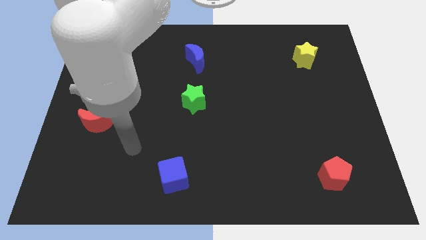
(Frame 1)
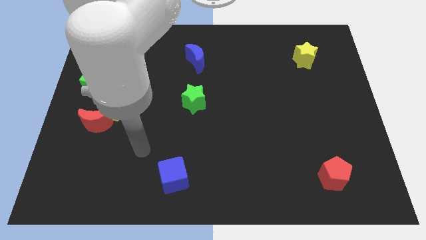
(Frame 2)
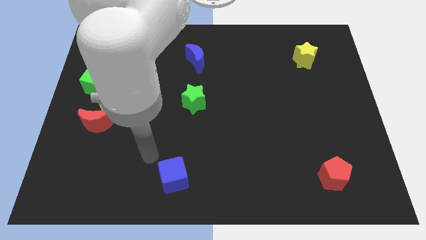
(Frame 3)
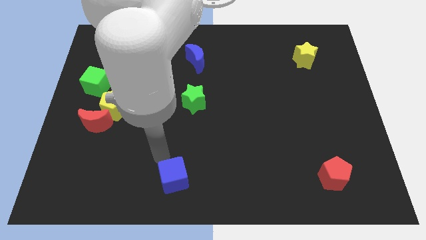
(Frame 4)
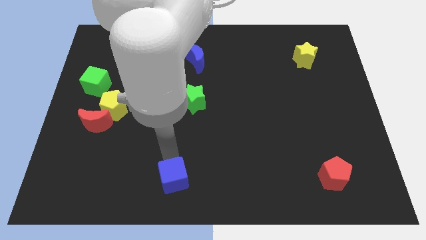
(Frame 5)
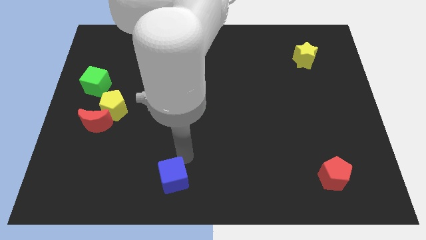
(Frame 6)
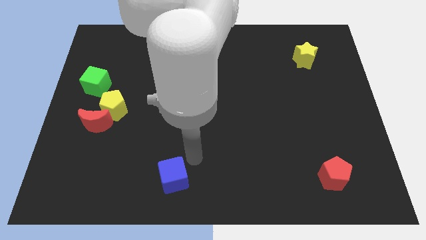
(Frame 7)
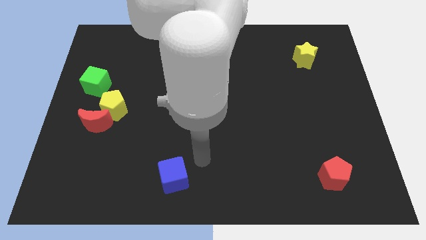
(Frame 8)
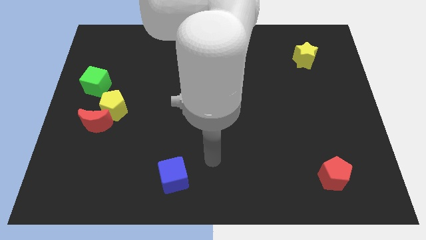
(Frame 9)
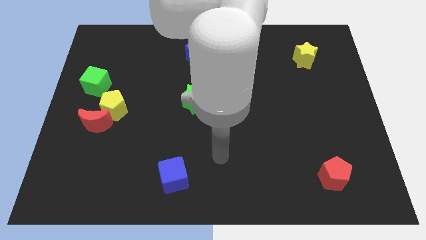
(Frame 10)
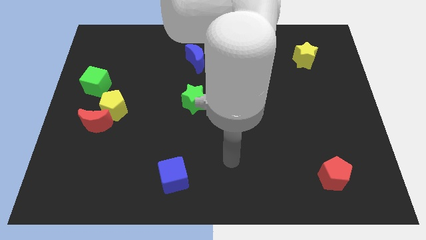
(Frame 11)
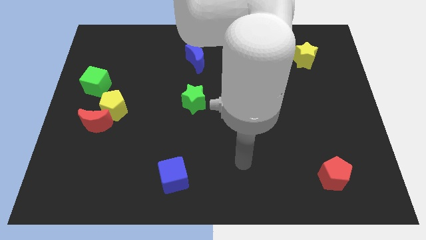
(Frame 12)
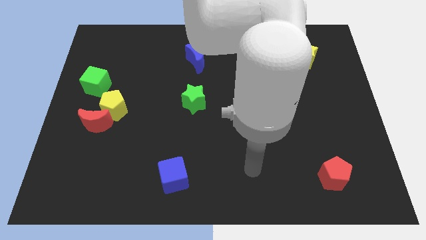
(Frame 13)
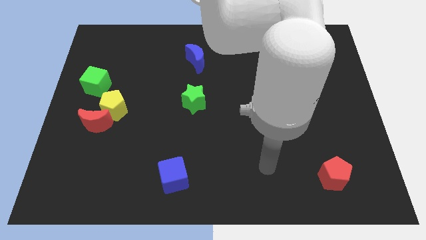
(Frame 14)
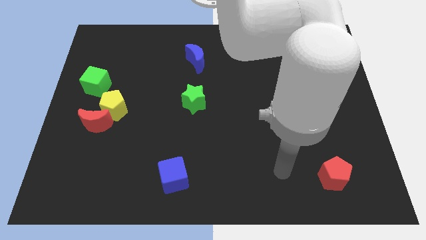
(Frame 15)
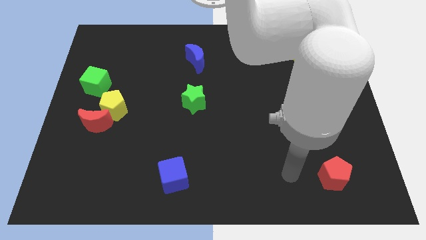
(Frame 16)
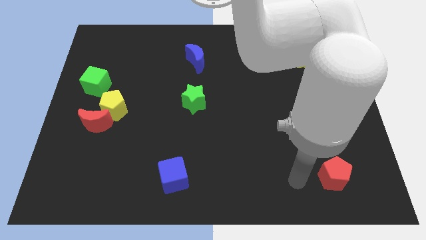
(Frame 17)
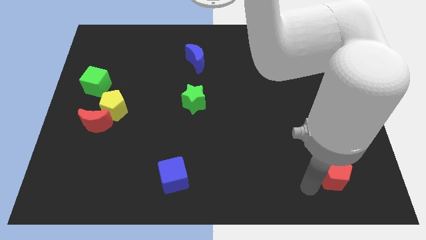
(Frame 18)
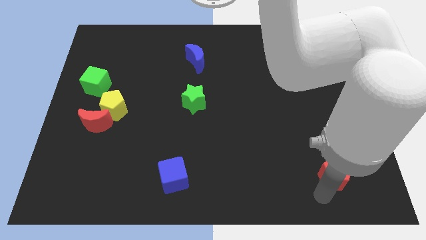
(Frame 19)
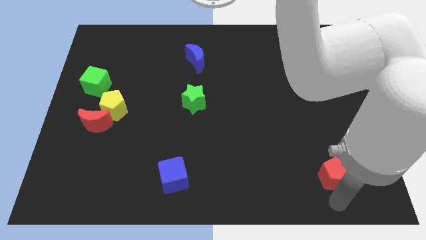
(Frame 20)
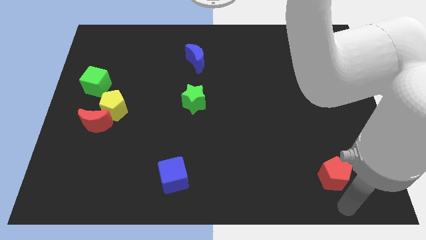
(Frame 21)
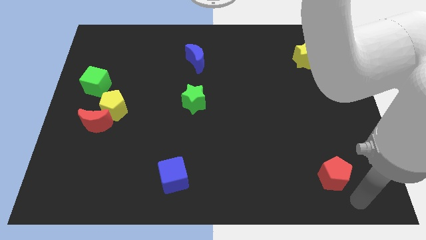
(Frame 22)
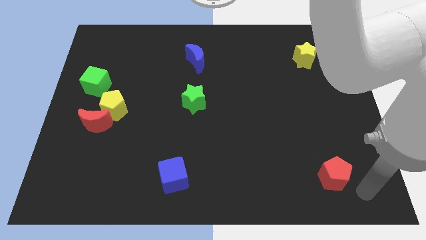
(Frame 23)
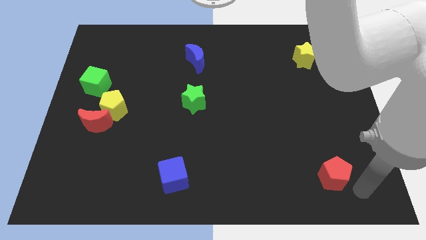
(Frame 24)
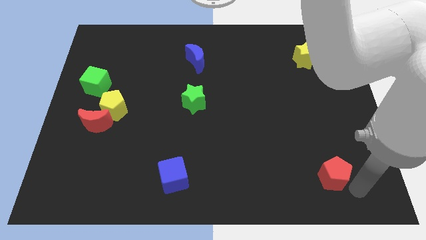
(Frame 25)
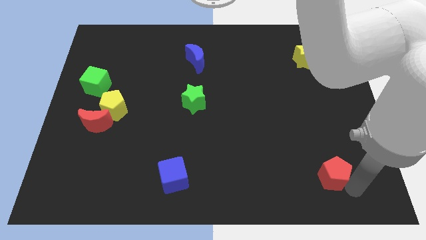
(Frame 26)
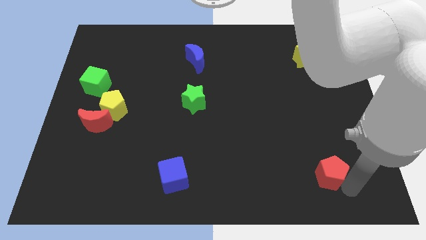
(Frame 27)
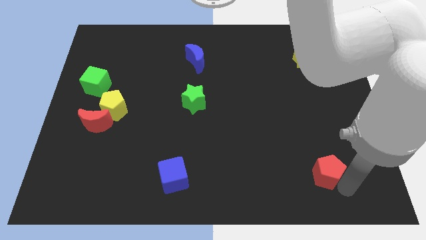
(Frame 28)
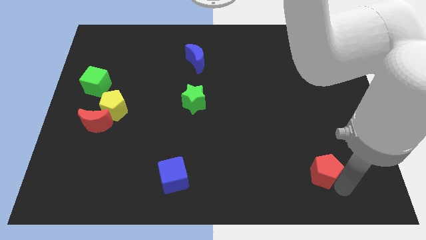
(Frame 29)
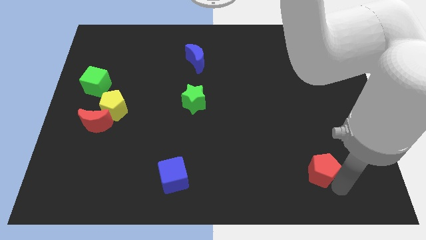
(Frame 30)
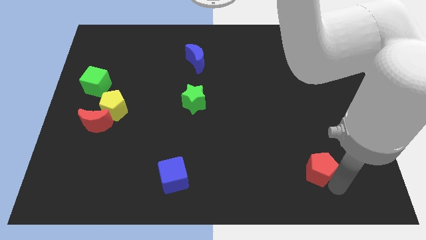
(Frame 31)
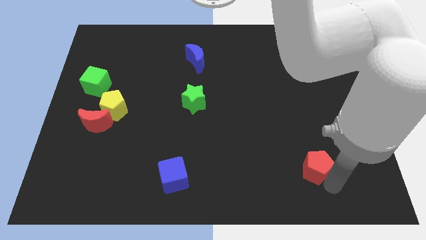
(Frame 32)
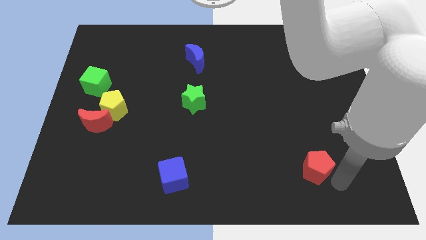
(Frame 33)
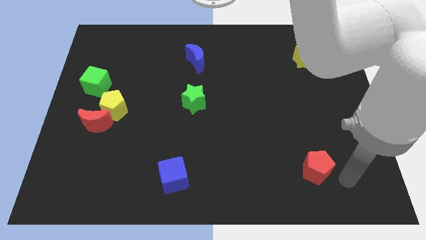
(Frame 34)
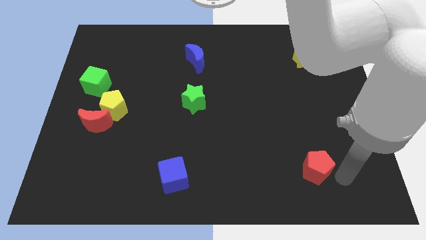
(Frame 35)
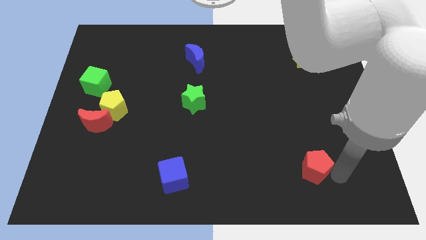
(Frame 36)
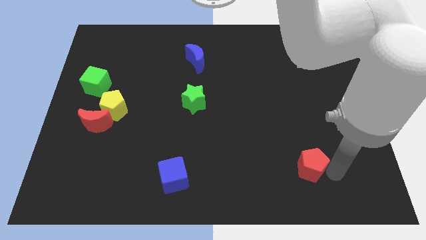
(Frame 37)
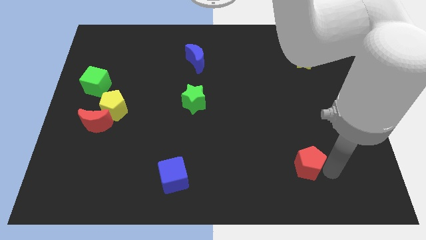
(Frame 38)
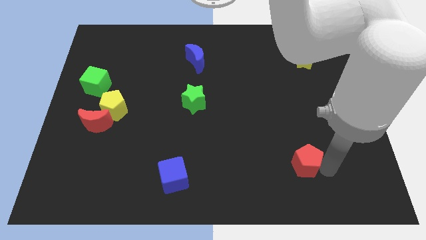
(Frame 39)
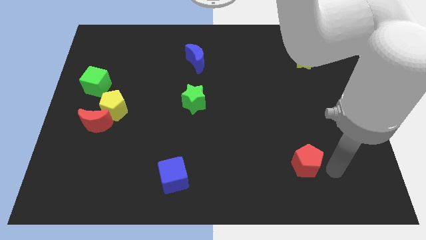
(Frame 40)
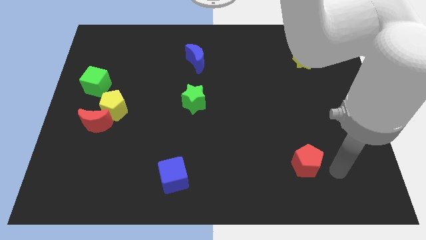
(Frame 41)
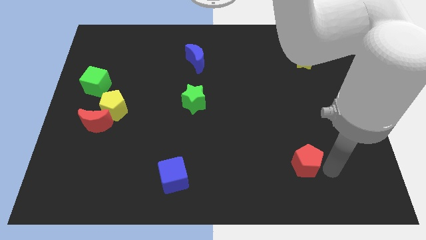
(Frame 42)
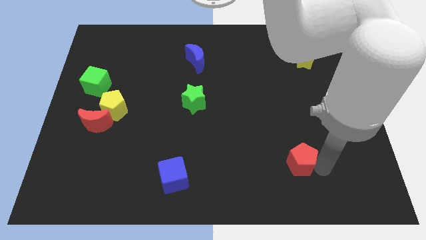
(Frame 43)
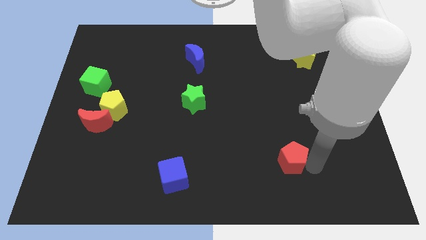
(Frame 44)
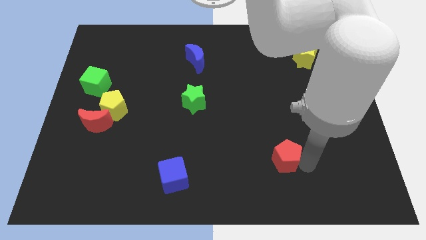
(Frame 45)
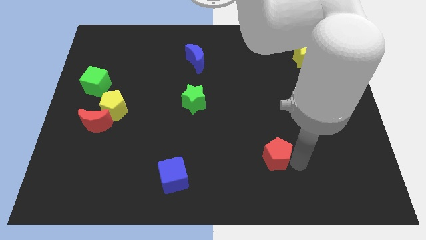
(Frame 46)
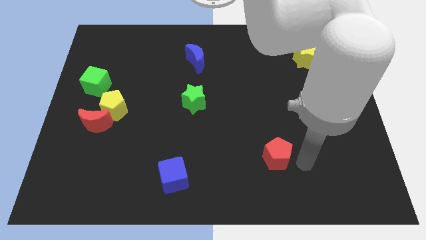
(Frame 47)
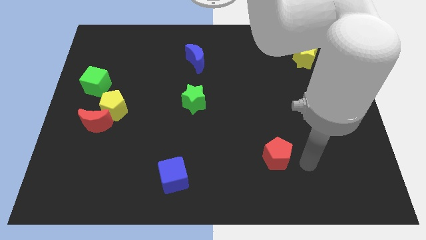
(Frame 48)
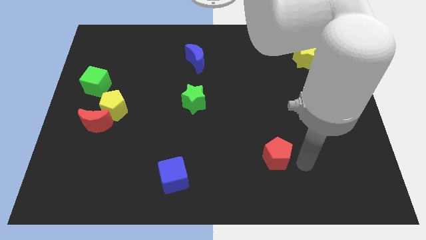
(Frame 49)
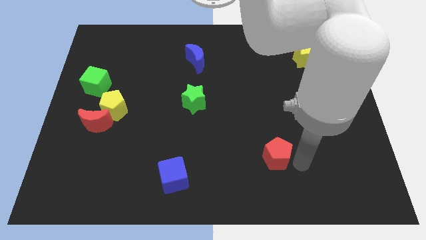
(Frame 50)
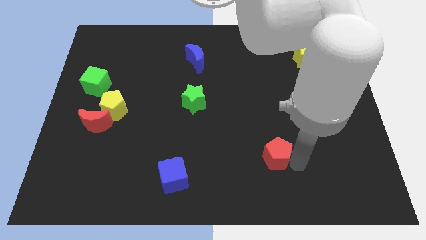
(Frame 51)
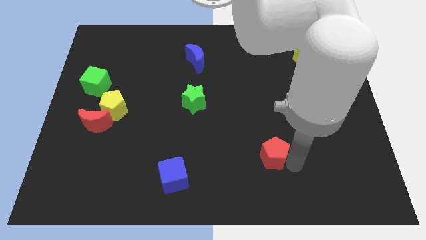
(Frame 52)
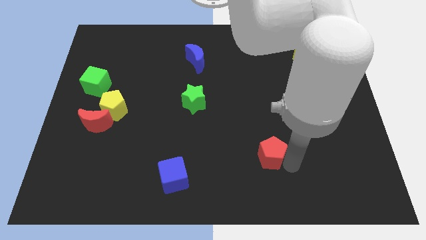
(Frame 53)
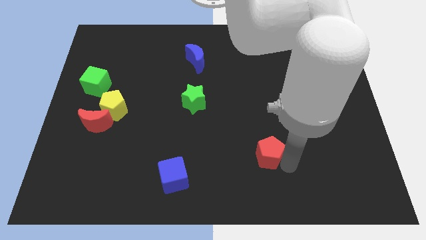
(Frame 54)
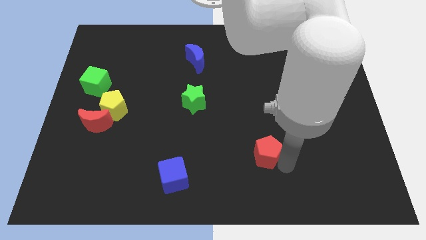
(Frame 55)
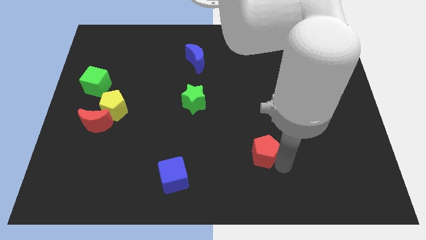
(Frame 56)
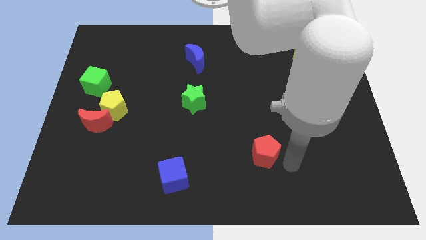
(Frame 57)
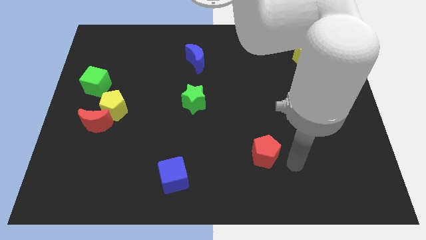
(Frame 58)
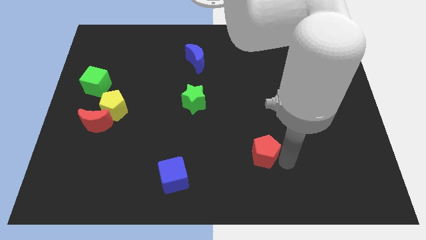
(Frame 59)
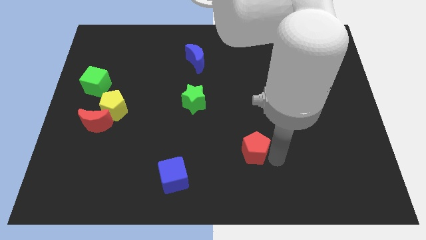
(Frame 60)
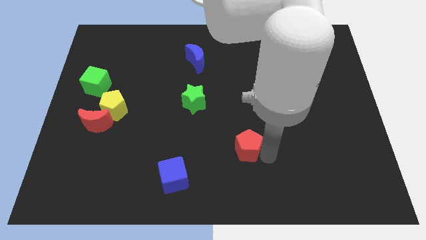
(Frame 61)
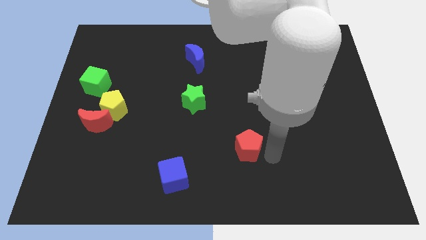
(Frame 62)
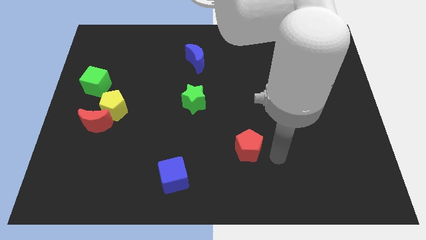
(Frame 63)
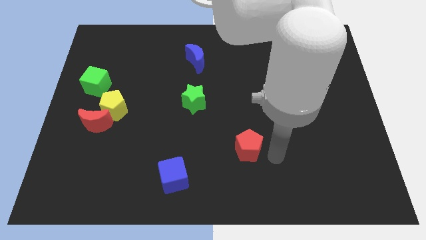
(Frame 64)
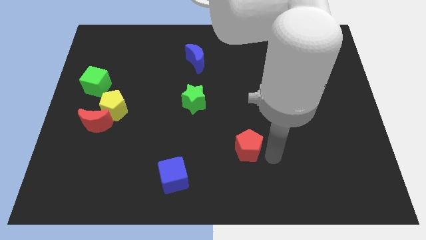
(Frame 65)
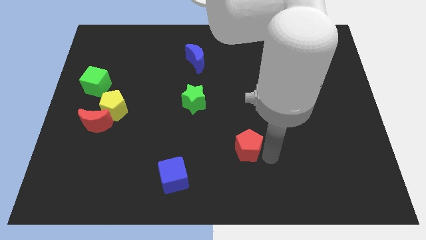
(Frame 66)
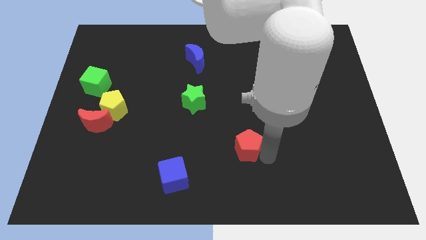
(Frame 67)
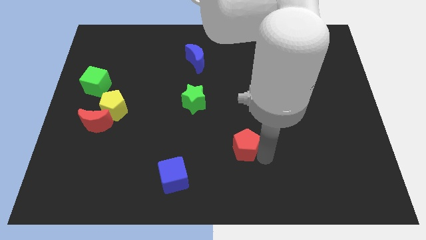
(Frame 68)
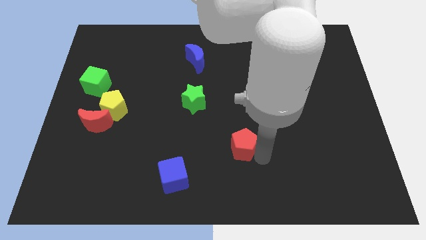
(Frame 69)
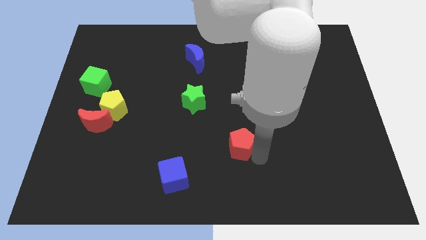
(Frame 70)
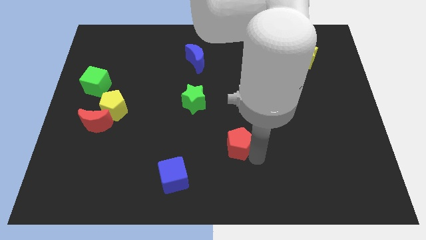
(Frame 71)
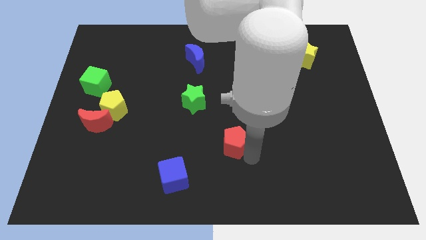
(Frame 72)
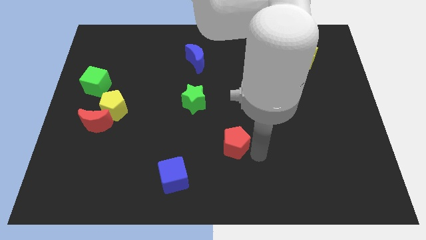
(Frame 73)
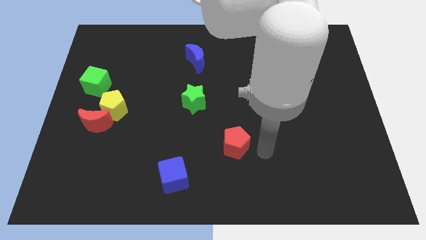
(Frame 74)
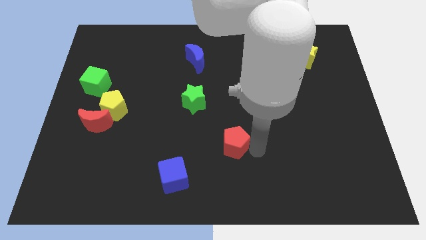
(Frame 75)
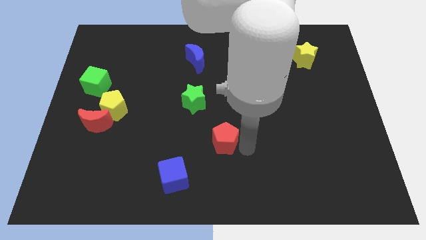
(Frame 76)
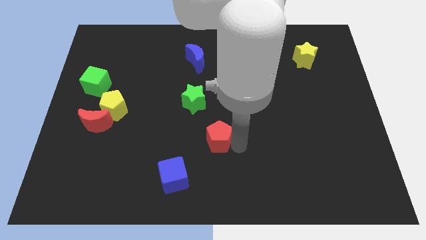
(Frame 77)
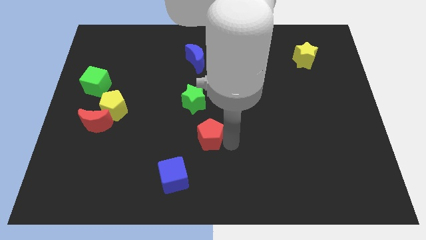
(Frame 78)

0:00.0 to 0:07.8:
move the red pentagon to the bottom of the green star
